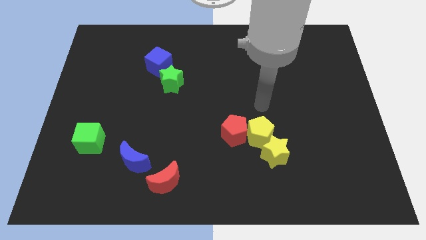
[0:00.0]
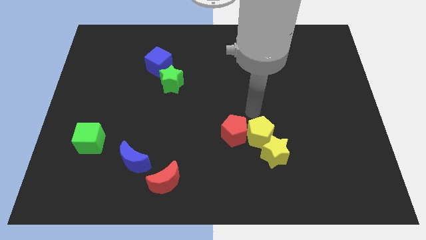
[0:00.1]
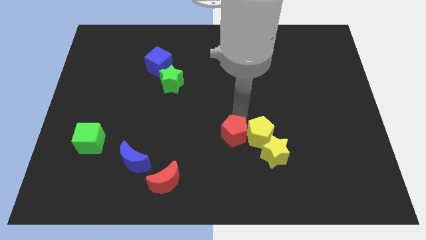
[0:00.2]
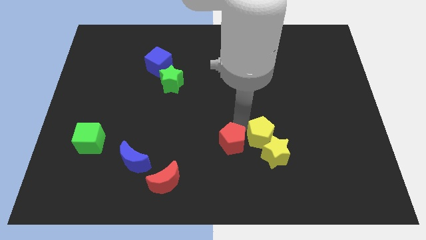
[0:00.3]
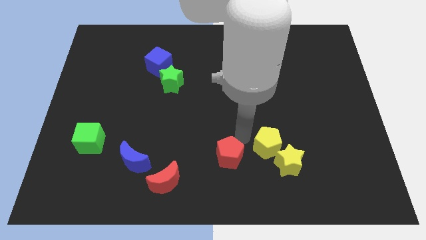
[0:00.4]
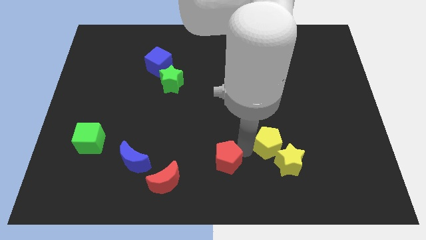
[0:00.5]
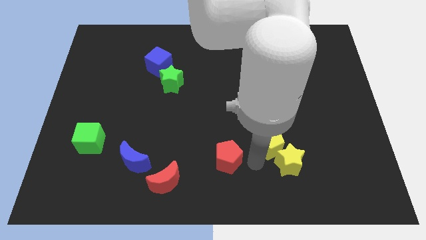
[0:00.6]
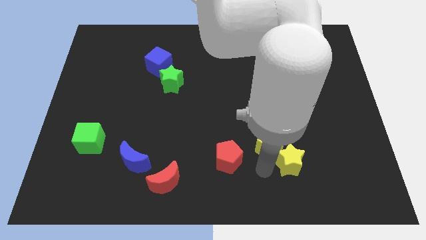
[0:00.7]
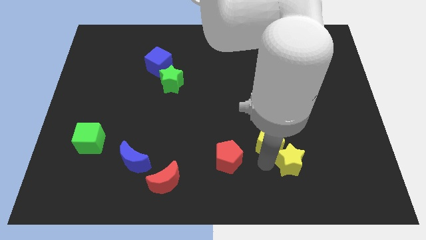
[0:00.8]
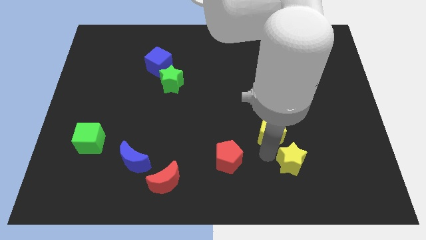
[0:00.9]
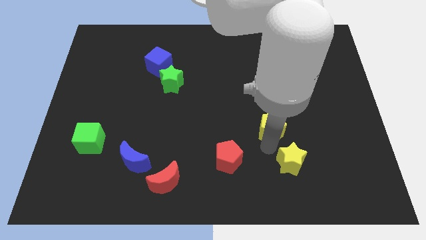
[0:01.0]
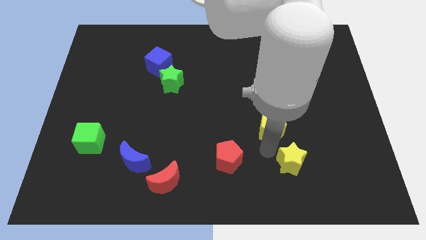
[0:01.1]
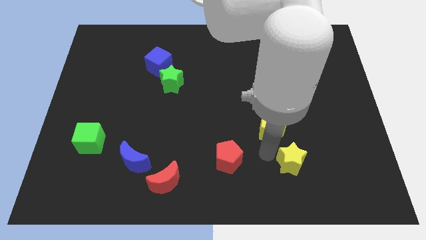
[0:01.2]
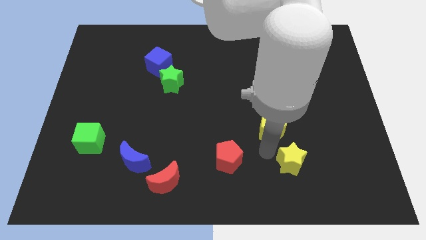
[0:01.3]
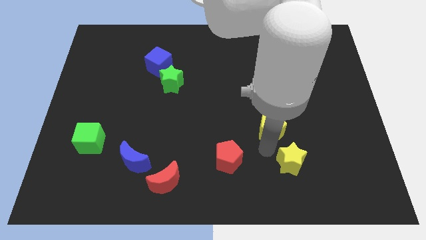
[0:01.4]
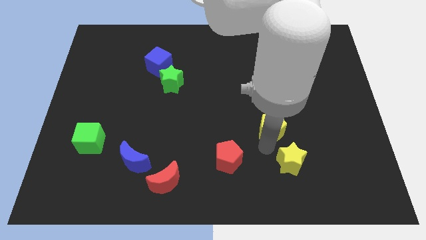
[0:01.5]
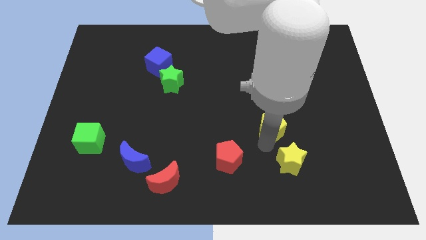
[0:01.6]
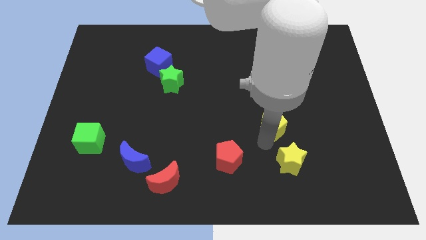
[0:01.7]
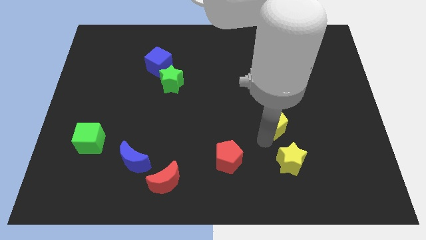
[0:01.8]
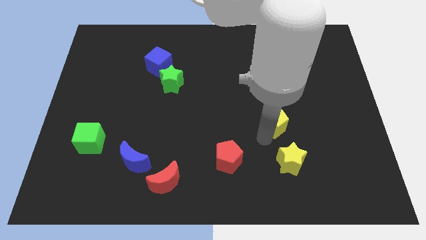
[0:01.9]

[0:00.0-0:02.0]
move the yellow pentagon away from the yellow star and red pentagon

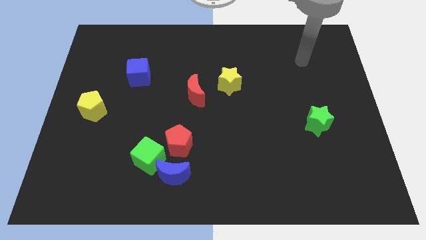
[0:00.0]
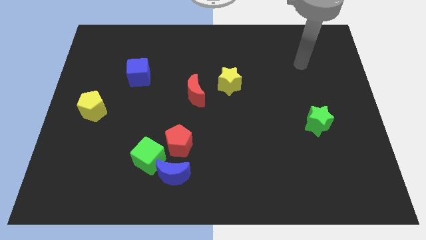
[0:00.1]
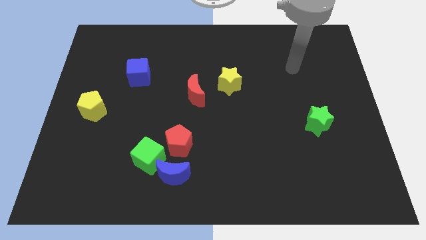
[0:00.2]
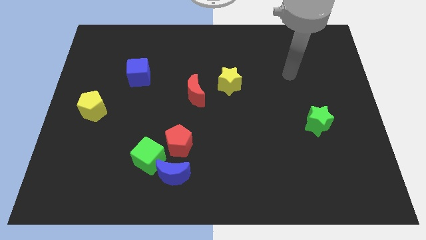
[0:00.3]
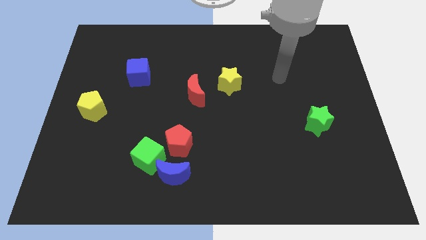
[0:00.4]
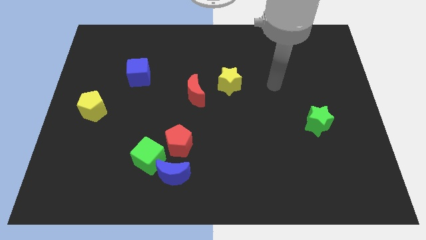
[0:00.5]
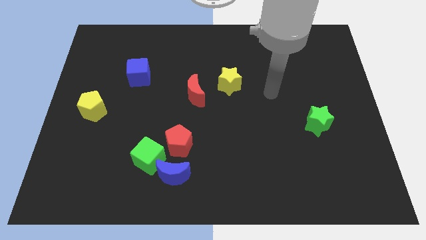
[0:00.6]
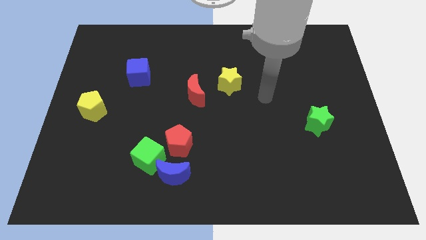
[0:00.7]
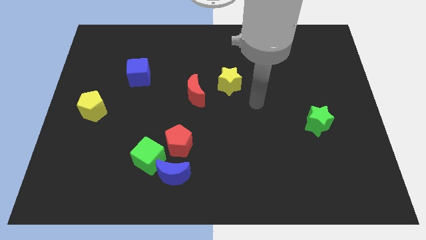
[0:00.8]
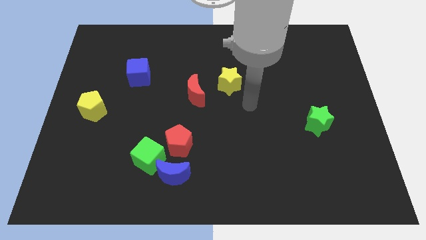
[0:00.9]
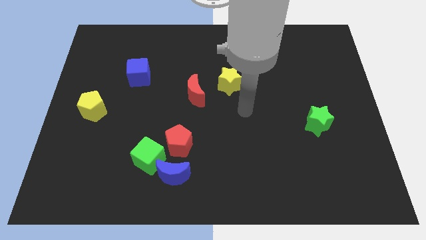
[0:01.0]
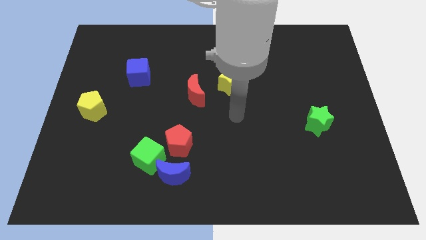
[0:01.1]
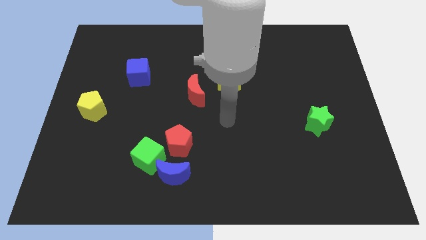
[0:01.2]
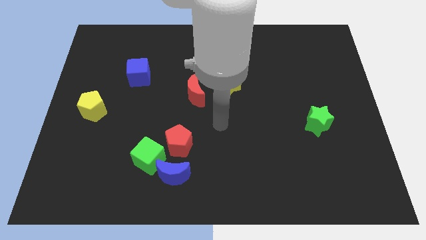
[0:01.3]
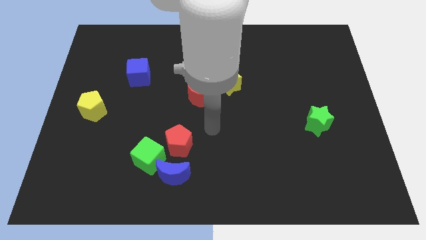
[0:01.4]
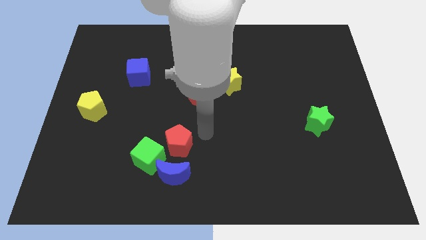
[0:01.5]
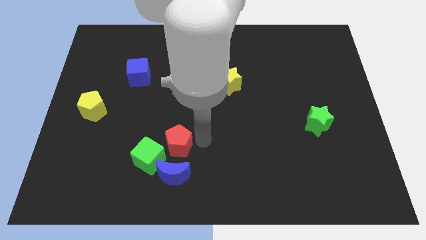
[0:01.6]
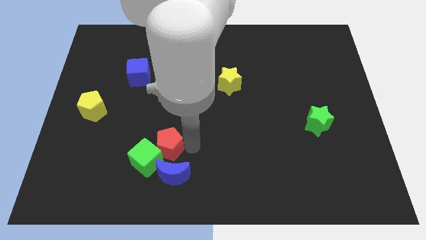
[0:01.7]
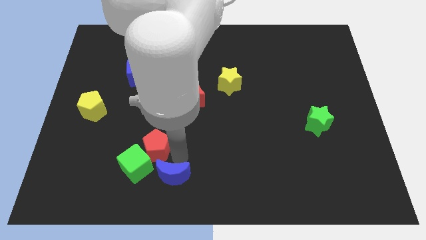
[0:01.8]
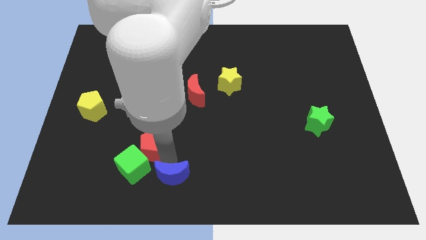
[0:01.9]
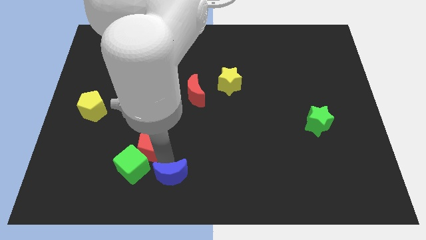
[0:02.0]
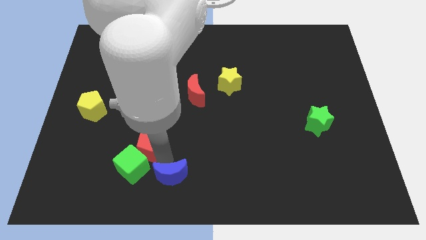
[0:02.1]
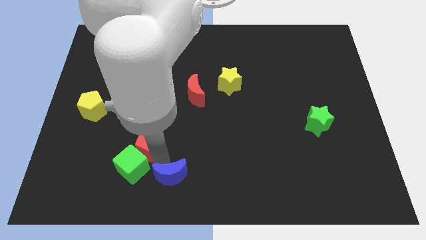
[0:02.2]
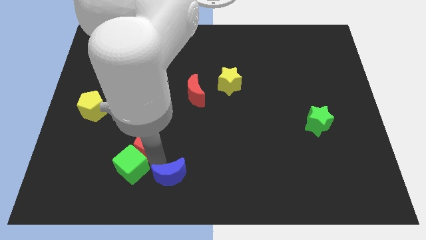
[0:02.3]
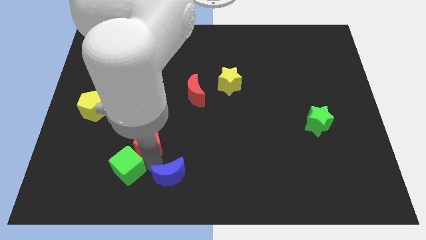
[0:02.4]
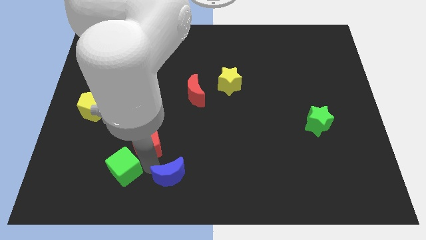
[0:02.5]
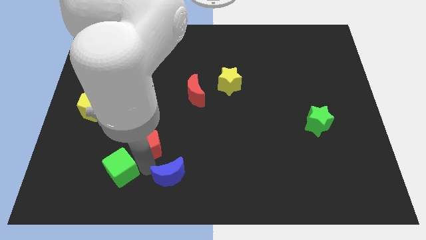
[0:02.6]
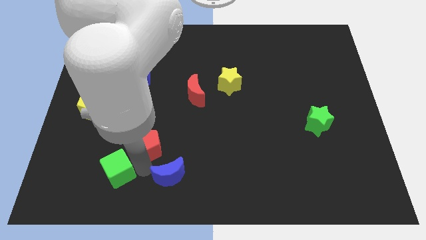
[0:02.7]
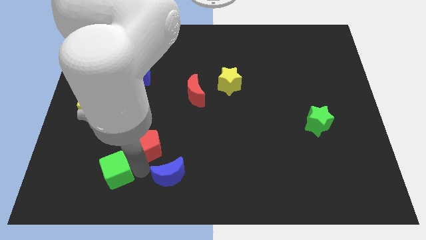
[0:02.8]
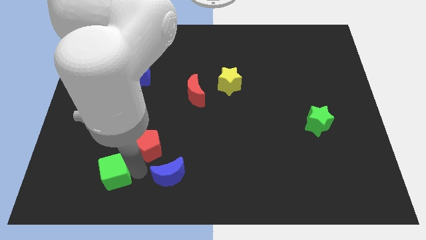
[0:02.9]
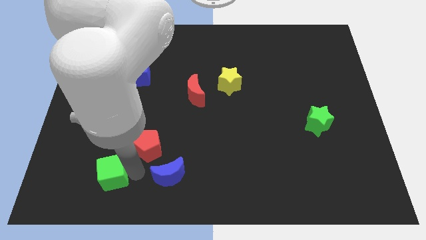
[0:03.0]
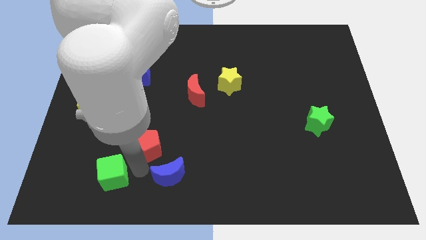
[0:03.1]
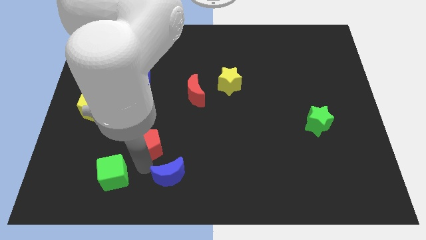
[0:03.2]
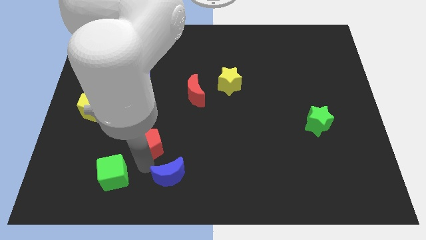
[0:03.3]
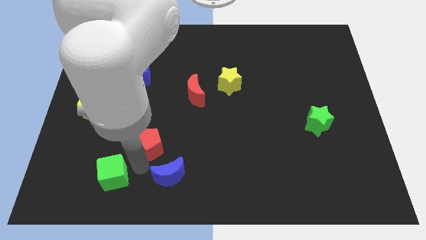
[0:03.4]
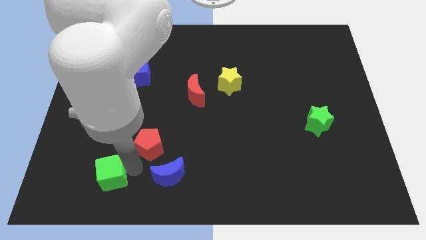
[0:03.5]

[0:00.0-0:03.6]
move the green cube away from the blue moon and red pentagon

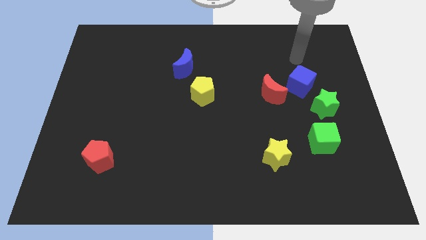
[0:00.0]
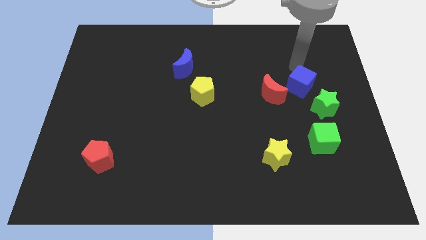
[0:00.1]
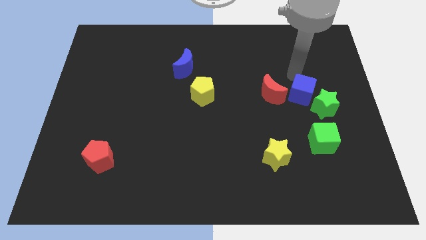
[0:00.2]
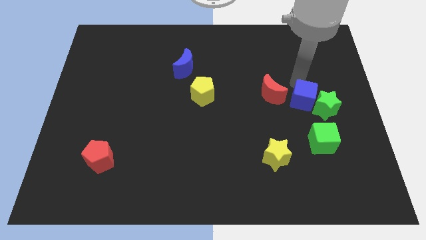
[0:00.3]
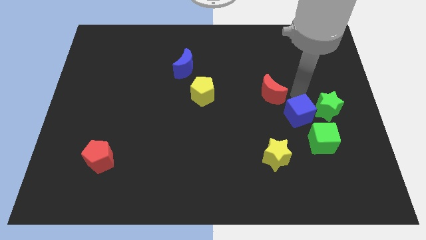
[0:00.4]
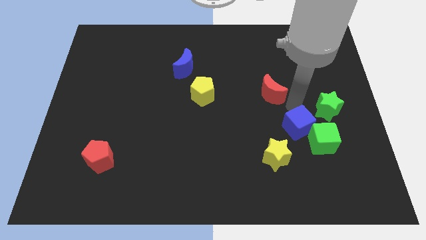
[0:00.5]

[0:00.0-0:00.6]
pull the red moon apart from the blue cube

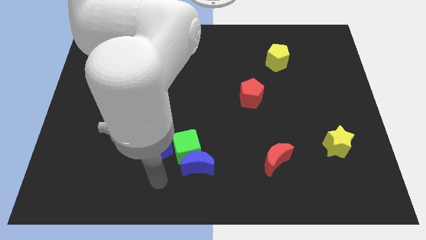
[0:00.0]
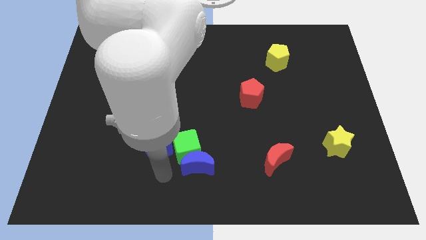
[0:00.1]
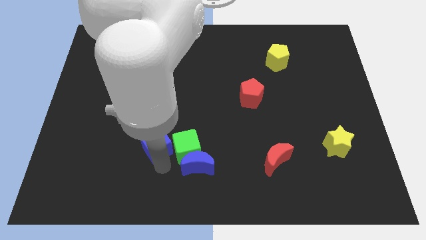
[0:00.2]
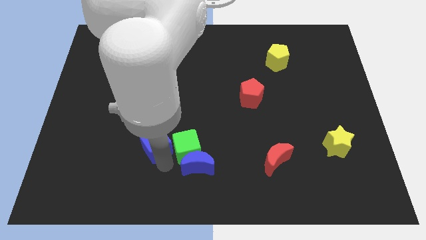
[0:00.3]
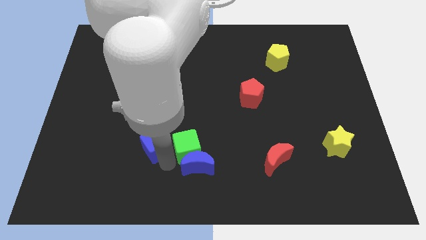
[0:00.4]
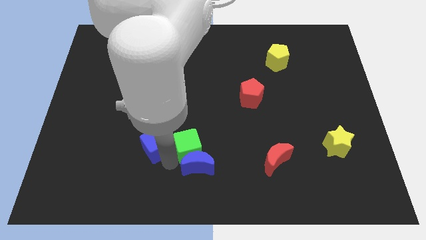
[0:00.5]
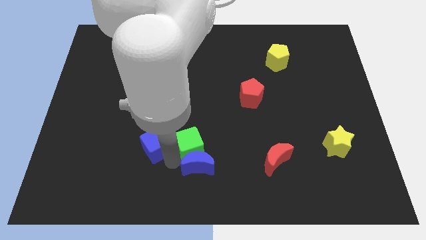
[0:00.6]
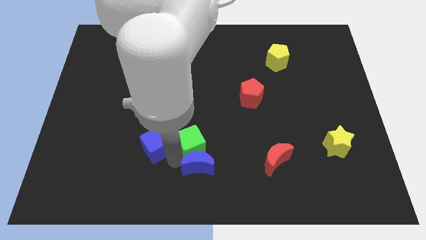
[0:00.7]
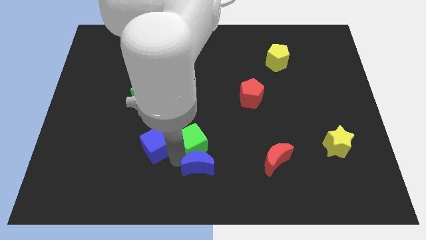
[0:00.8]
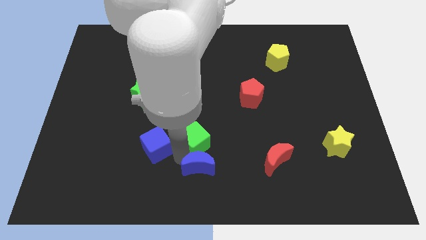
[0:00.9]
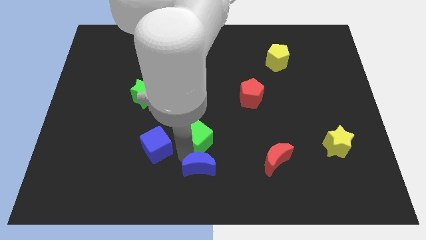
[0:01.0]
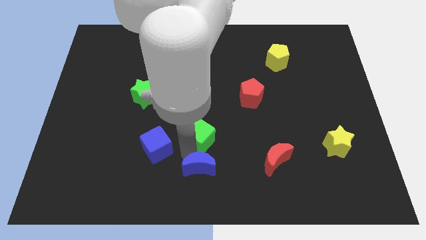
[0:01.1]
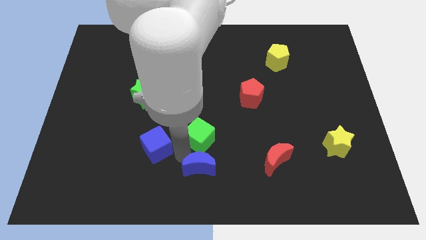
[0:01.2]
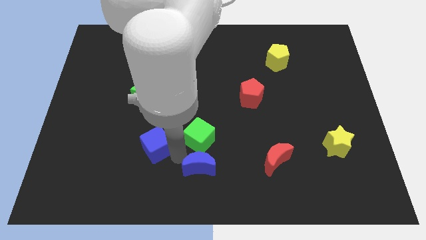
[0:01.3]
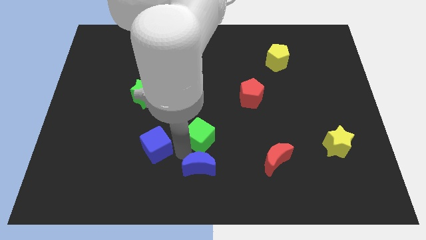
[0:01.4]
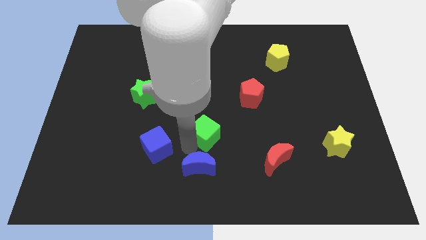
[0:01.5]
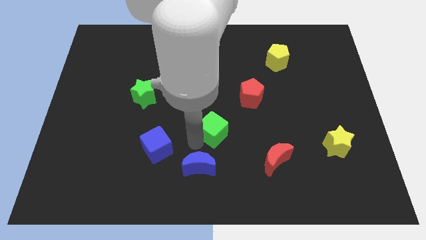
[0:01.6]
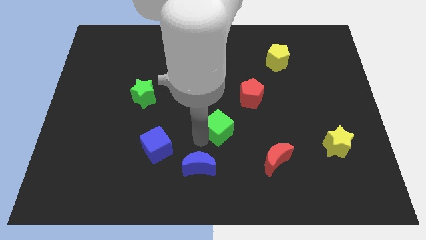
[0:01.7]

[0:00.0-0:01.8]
move the green cube away from the blue moon and blue cube

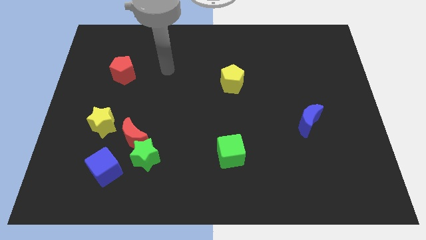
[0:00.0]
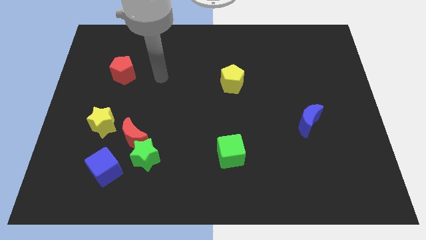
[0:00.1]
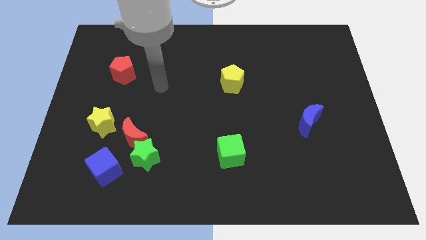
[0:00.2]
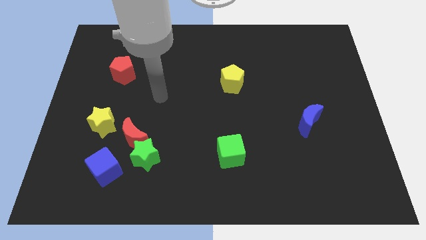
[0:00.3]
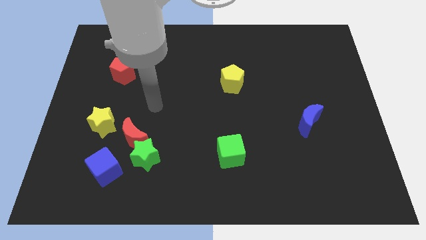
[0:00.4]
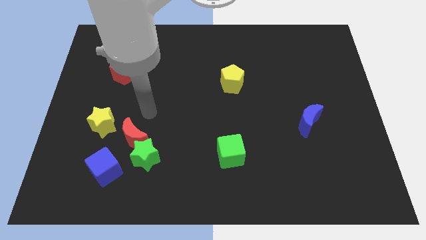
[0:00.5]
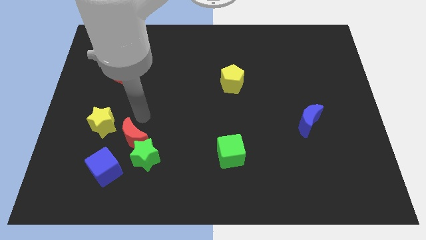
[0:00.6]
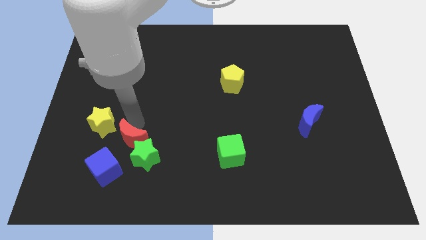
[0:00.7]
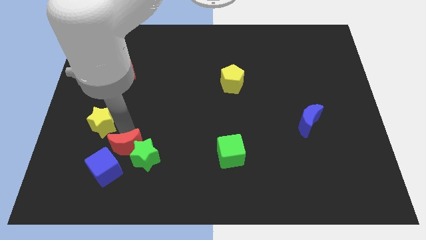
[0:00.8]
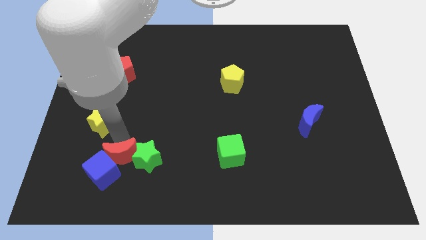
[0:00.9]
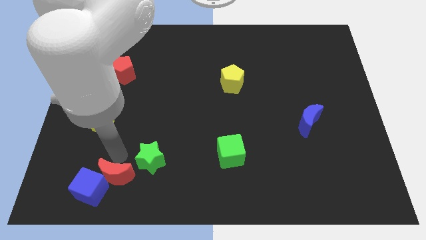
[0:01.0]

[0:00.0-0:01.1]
move the green star away from the red moon and blue cube
